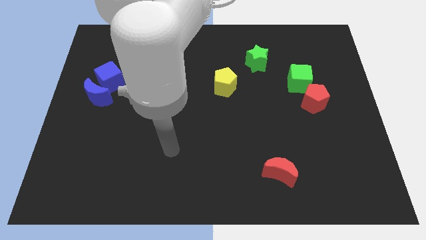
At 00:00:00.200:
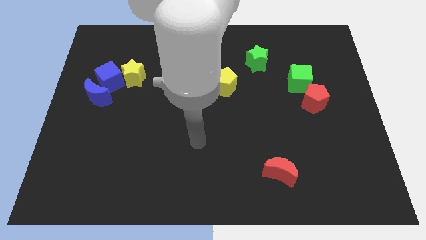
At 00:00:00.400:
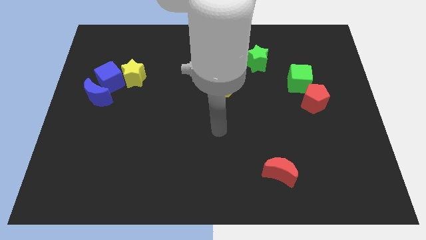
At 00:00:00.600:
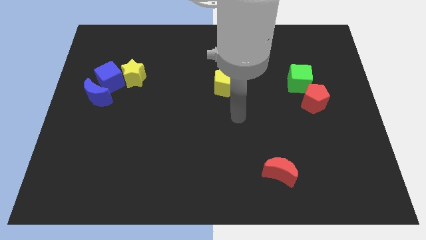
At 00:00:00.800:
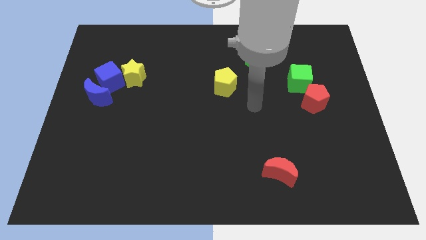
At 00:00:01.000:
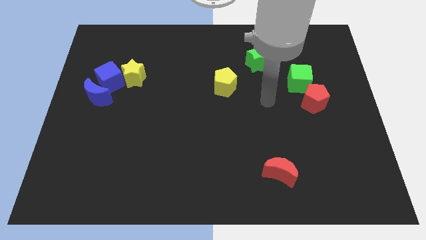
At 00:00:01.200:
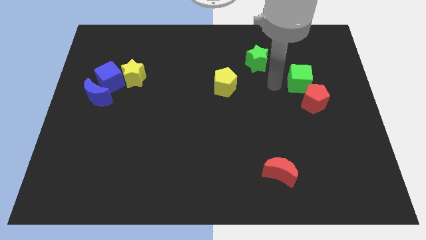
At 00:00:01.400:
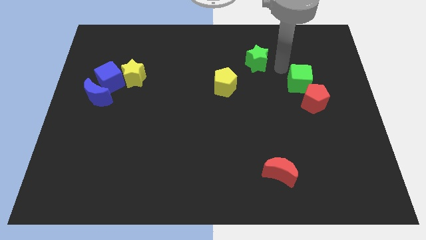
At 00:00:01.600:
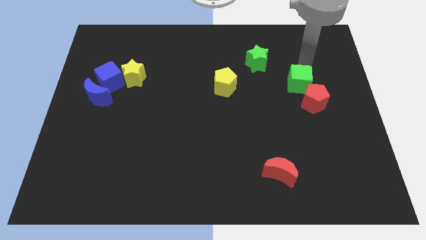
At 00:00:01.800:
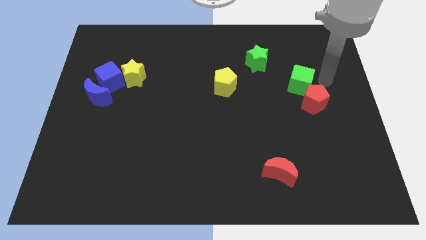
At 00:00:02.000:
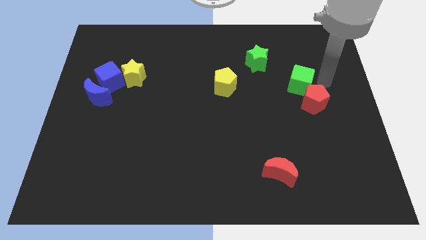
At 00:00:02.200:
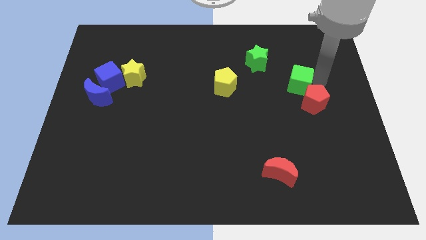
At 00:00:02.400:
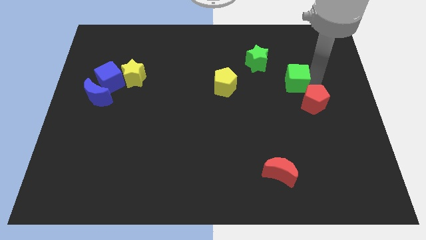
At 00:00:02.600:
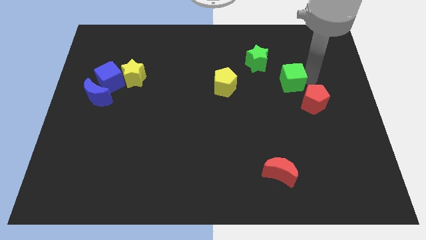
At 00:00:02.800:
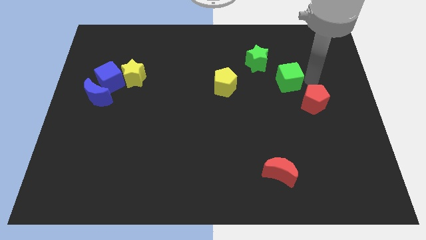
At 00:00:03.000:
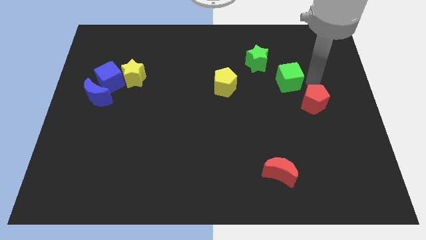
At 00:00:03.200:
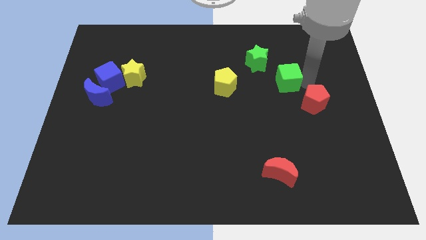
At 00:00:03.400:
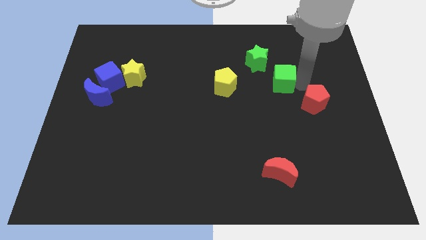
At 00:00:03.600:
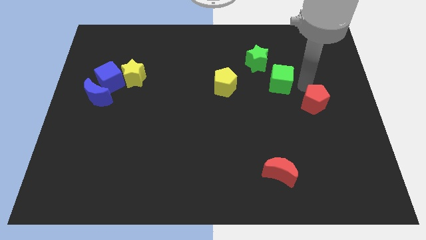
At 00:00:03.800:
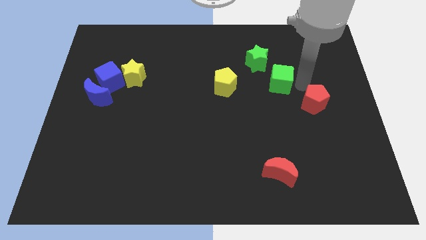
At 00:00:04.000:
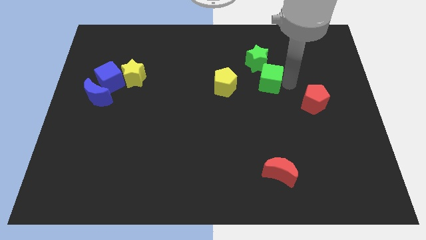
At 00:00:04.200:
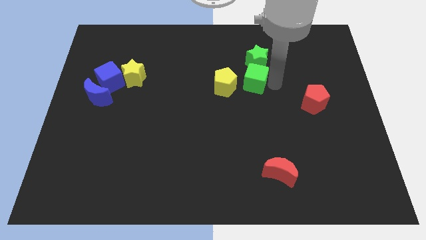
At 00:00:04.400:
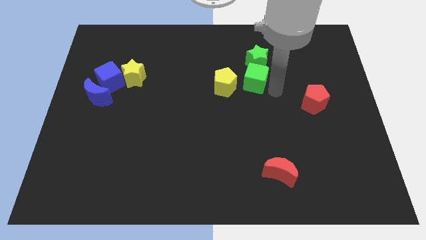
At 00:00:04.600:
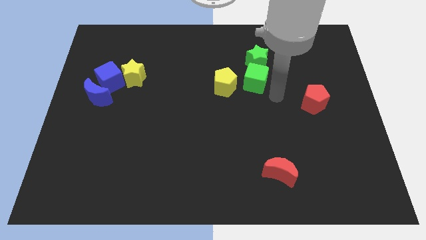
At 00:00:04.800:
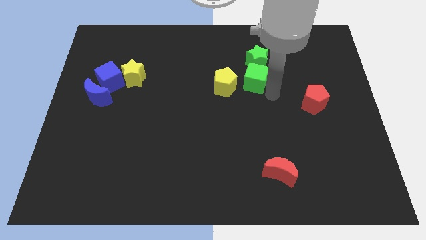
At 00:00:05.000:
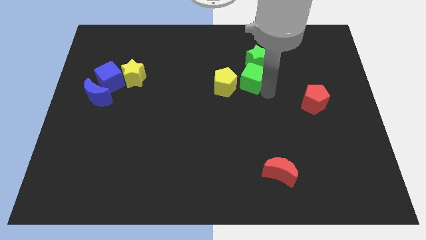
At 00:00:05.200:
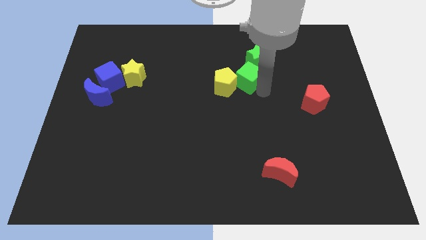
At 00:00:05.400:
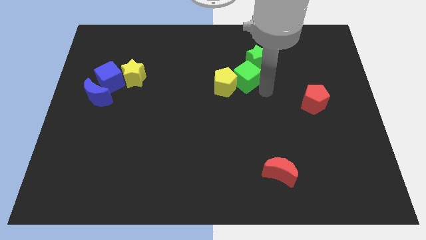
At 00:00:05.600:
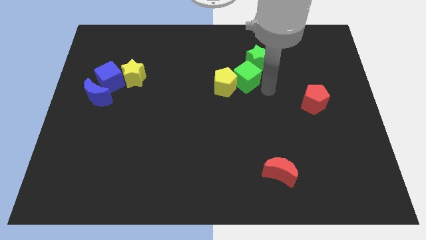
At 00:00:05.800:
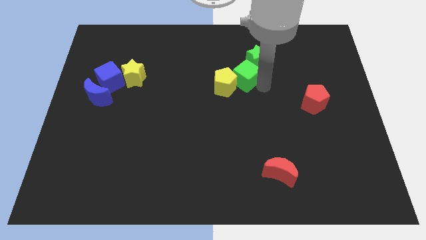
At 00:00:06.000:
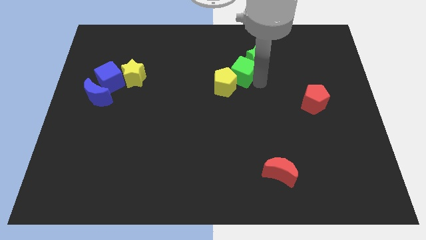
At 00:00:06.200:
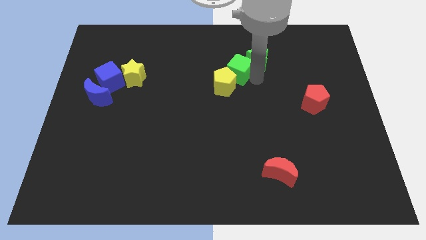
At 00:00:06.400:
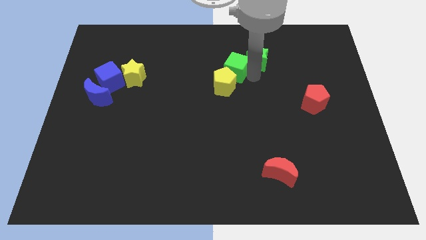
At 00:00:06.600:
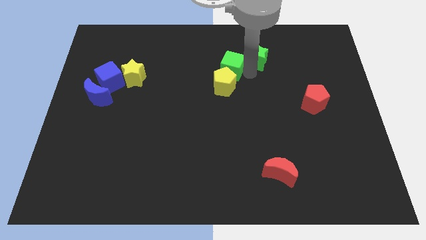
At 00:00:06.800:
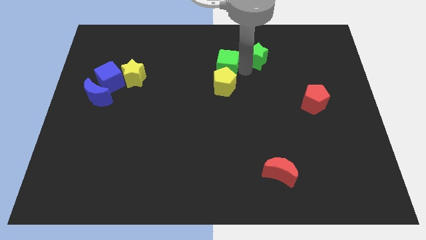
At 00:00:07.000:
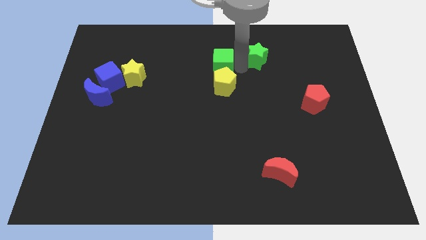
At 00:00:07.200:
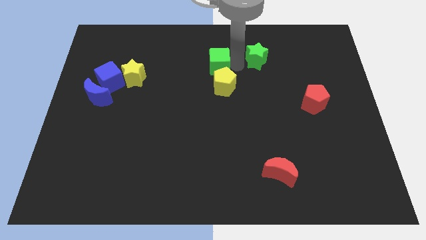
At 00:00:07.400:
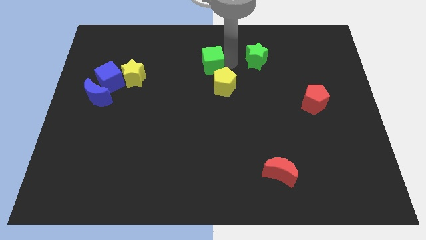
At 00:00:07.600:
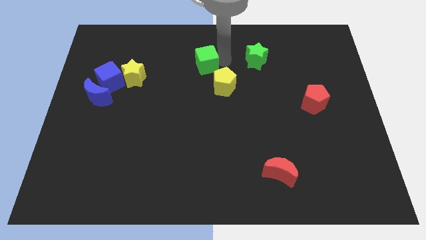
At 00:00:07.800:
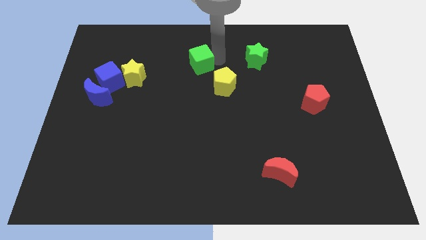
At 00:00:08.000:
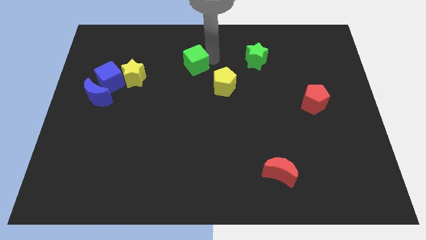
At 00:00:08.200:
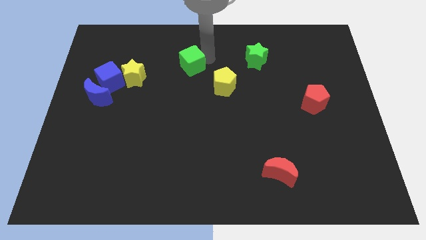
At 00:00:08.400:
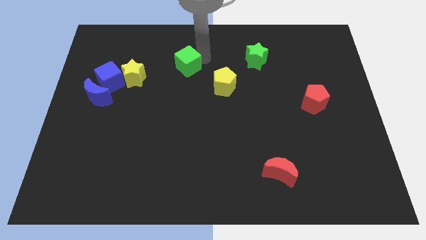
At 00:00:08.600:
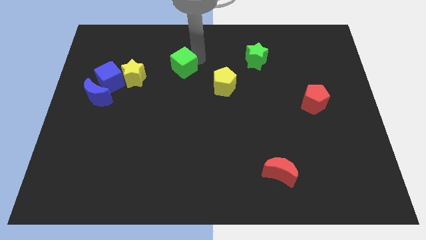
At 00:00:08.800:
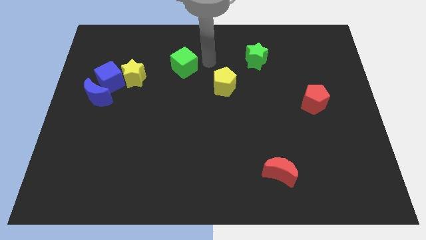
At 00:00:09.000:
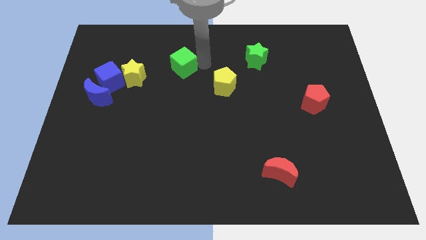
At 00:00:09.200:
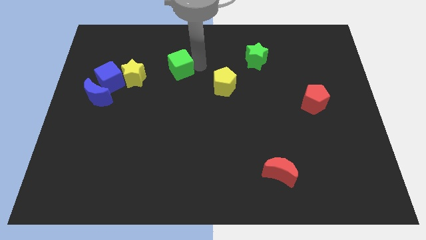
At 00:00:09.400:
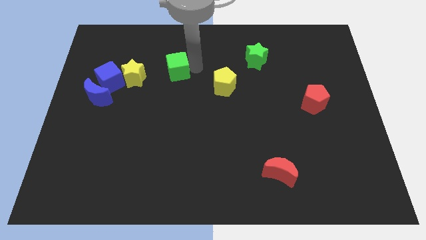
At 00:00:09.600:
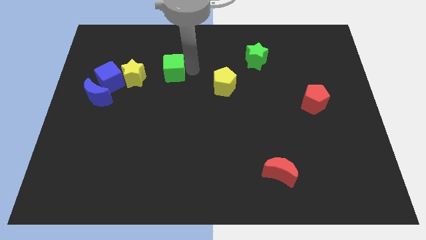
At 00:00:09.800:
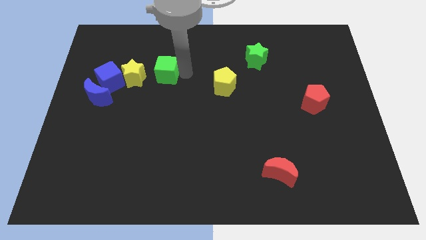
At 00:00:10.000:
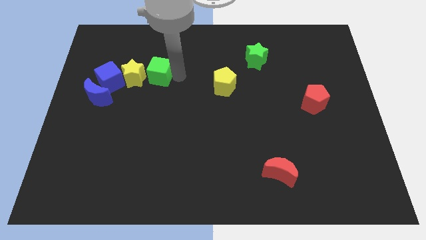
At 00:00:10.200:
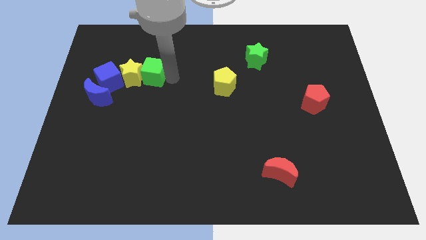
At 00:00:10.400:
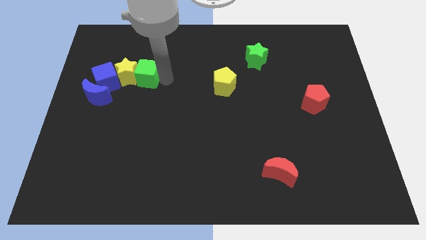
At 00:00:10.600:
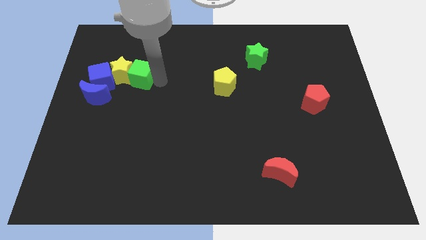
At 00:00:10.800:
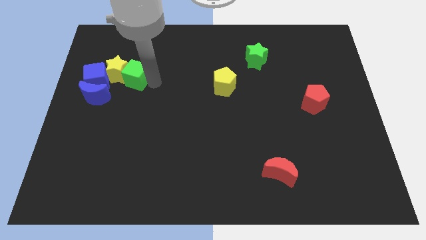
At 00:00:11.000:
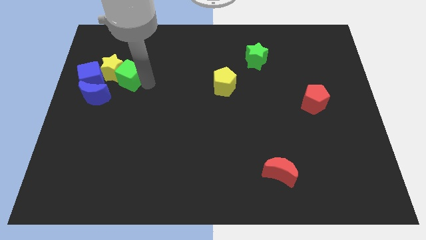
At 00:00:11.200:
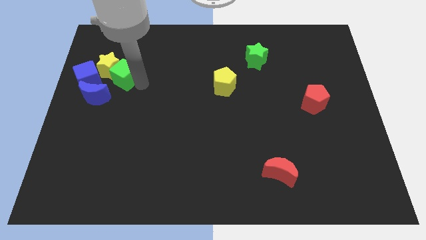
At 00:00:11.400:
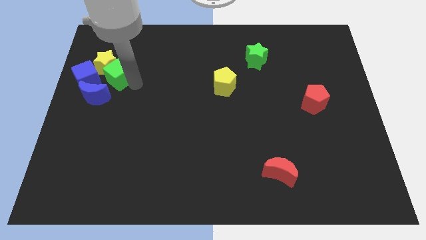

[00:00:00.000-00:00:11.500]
move the green cube diagonally up and to the right of the blue cube

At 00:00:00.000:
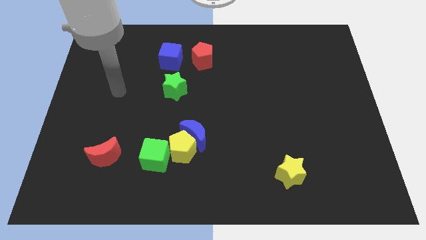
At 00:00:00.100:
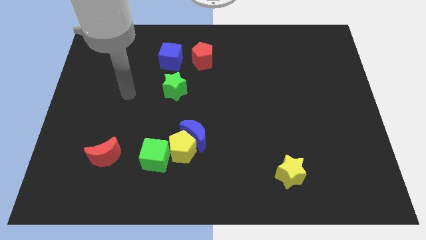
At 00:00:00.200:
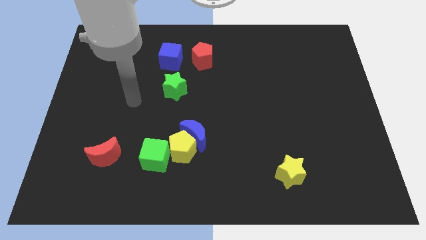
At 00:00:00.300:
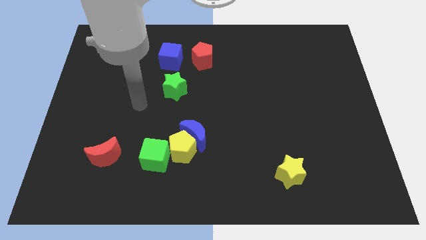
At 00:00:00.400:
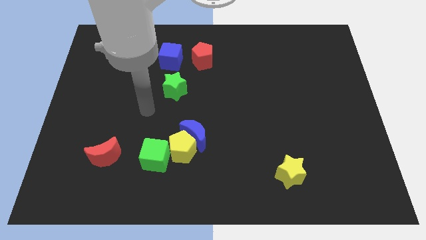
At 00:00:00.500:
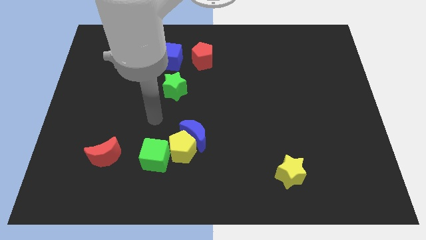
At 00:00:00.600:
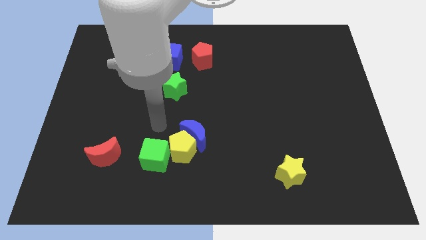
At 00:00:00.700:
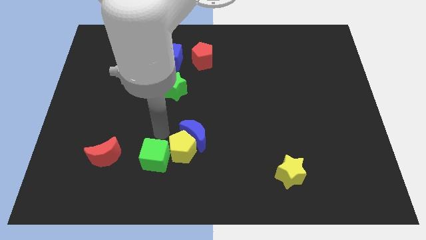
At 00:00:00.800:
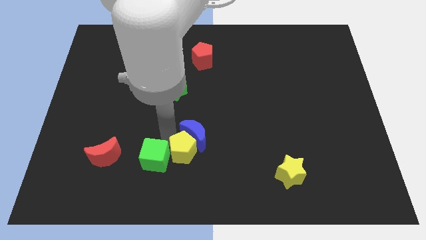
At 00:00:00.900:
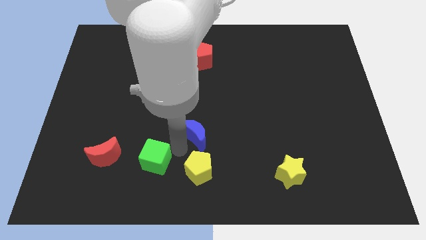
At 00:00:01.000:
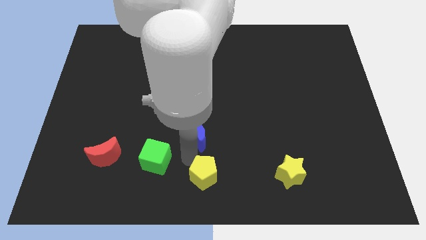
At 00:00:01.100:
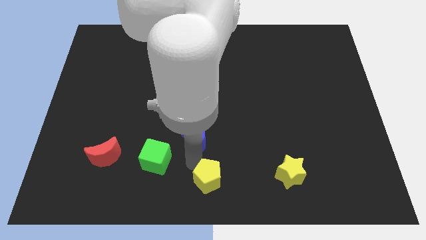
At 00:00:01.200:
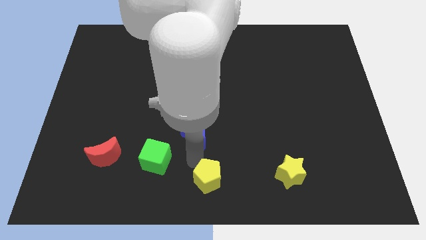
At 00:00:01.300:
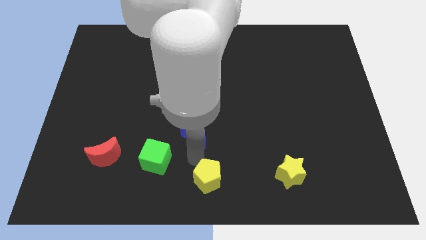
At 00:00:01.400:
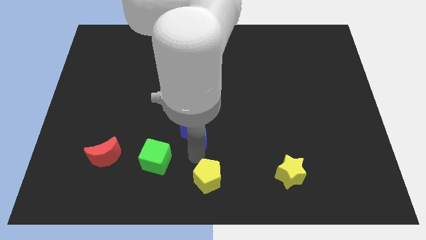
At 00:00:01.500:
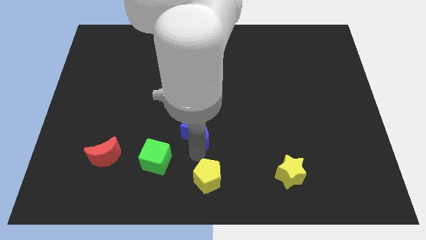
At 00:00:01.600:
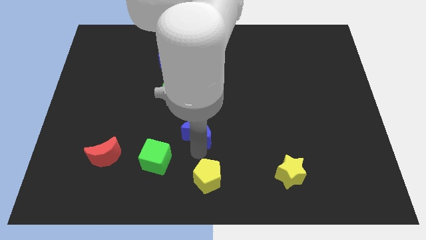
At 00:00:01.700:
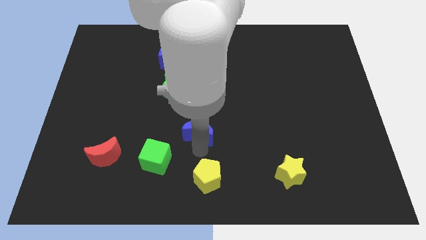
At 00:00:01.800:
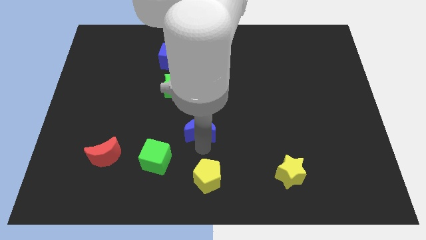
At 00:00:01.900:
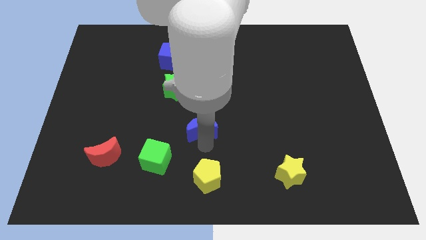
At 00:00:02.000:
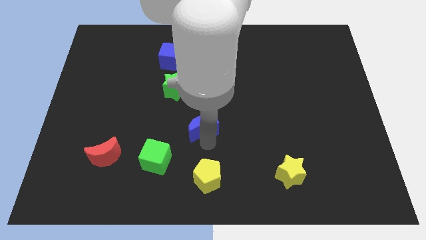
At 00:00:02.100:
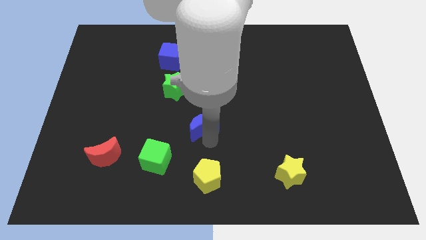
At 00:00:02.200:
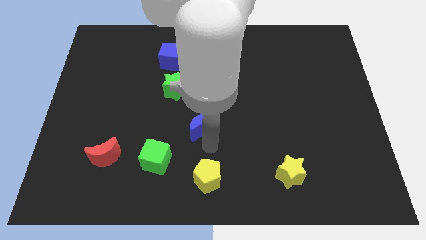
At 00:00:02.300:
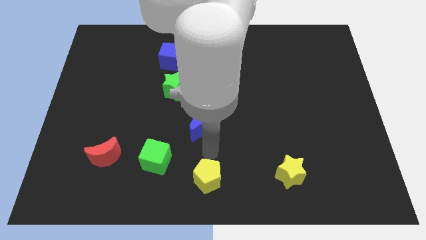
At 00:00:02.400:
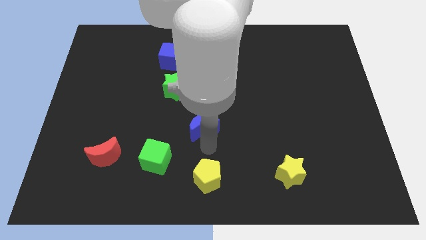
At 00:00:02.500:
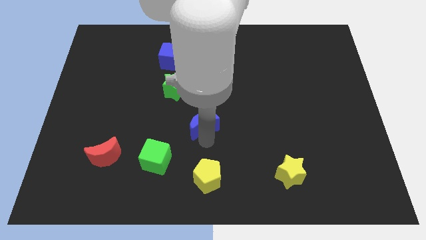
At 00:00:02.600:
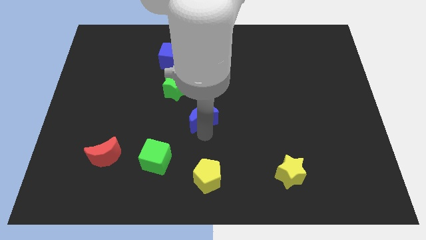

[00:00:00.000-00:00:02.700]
put the blue moon to the bottom right of the green star
